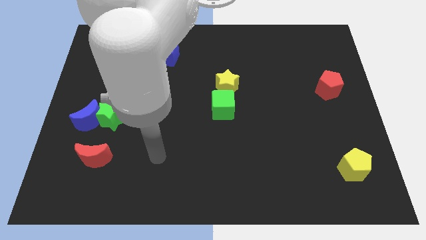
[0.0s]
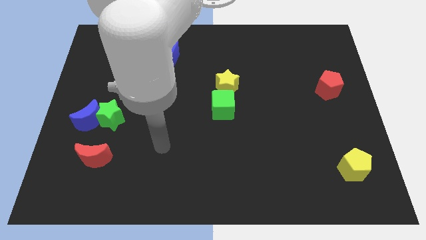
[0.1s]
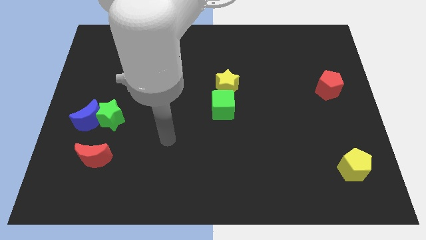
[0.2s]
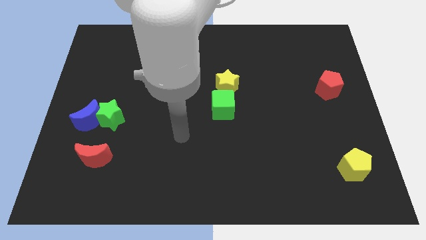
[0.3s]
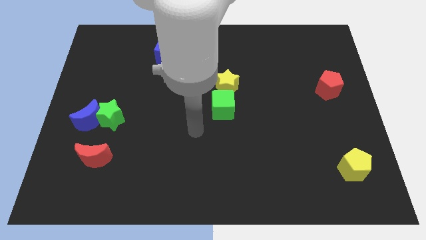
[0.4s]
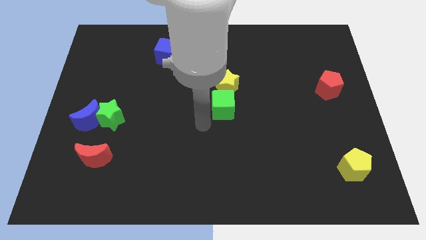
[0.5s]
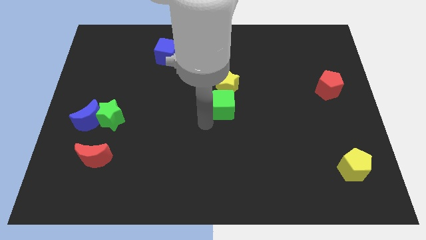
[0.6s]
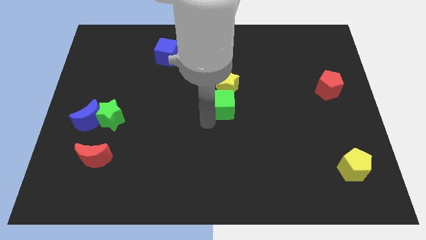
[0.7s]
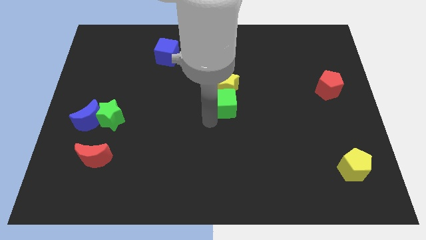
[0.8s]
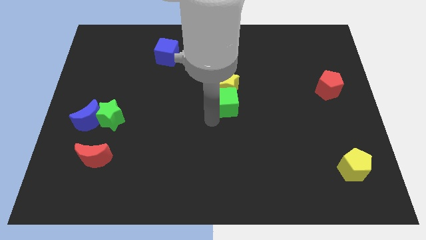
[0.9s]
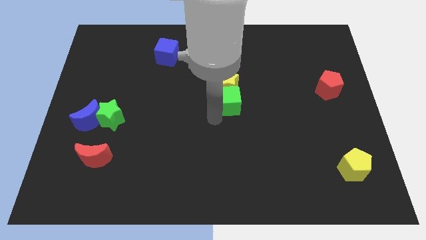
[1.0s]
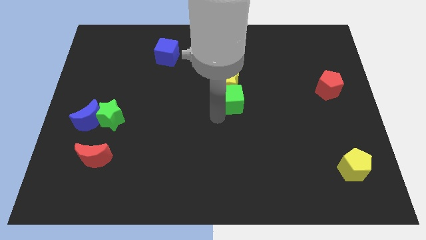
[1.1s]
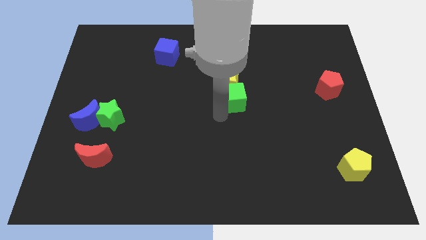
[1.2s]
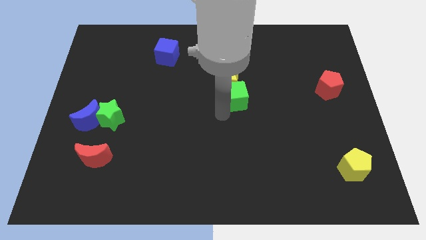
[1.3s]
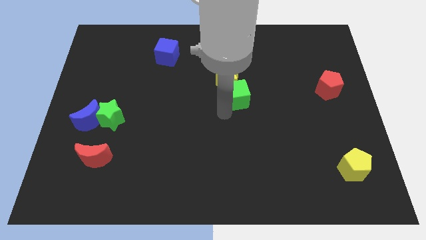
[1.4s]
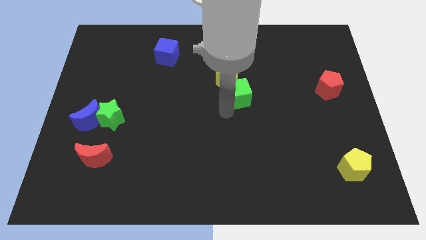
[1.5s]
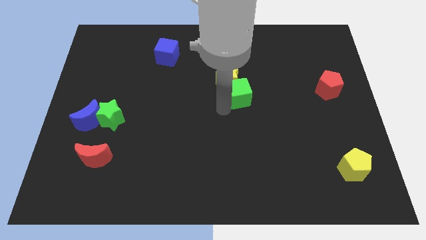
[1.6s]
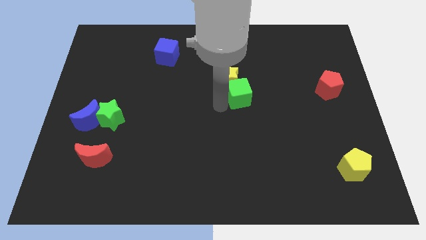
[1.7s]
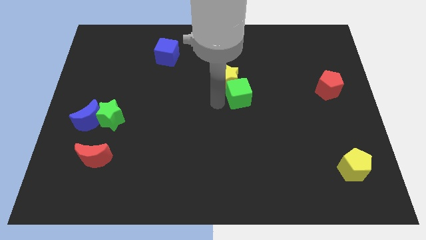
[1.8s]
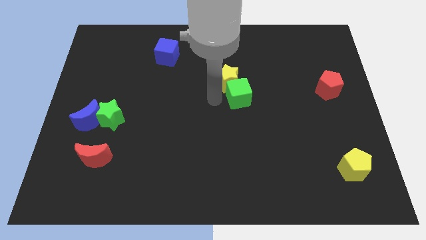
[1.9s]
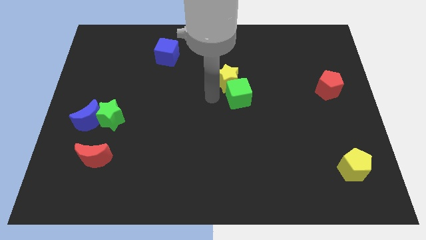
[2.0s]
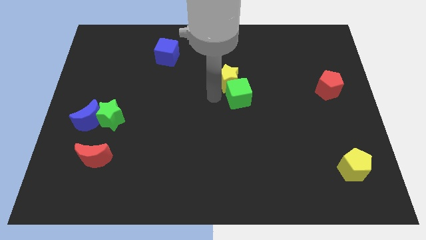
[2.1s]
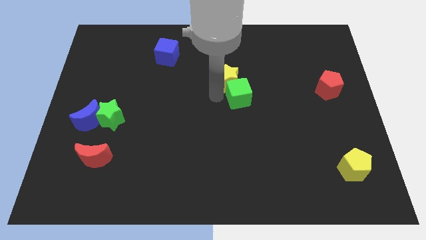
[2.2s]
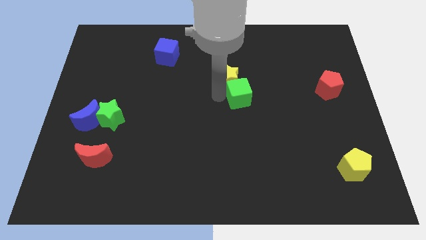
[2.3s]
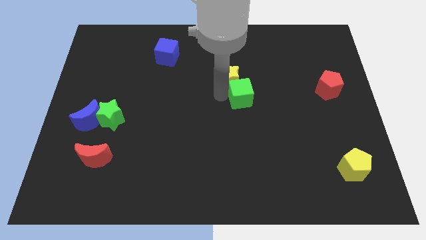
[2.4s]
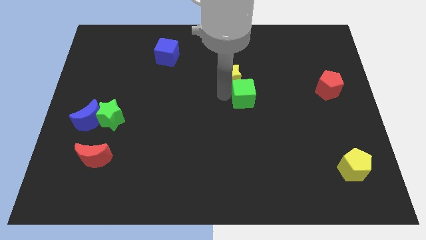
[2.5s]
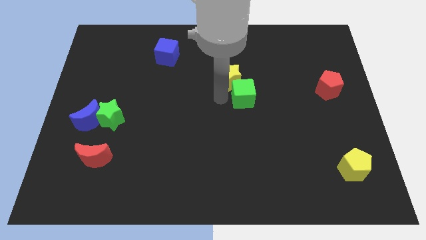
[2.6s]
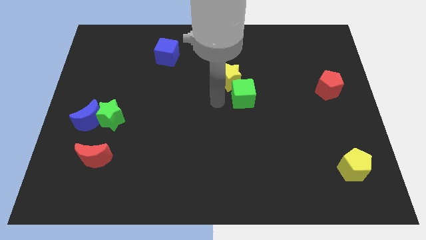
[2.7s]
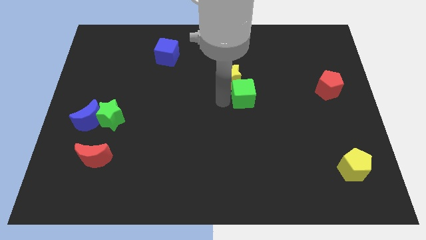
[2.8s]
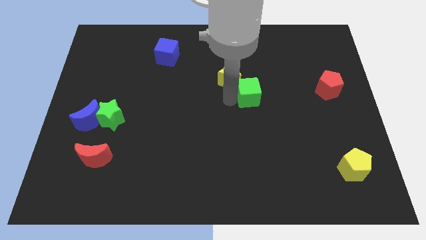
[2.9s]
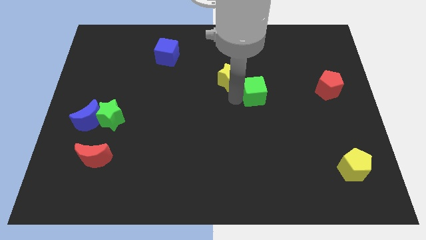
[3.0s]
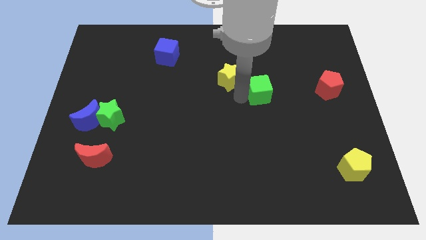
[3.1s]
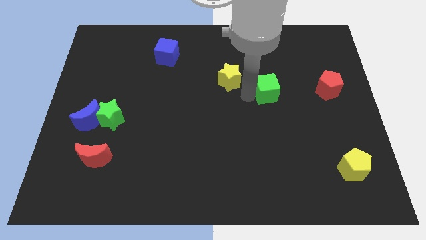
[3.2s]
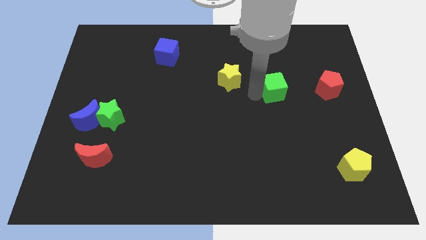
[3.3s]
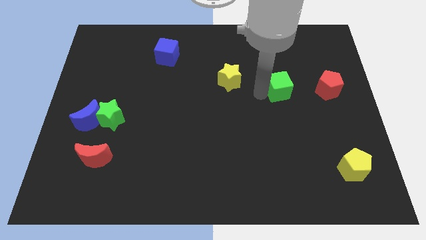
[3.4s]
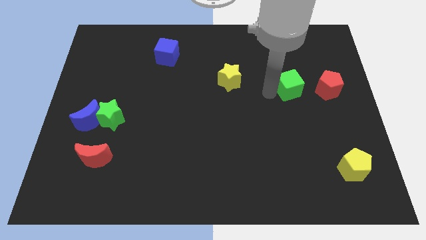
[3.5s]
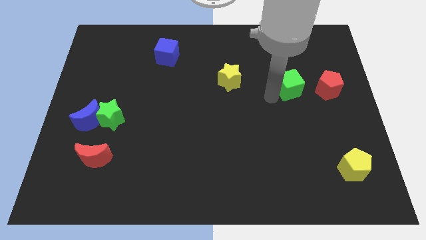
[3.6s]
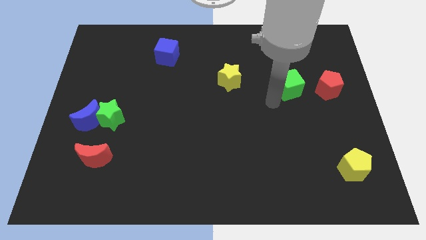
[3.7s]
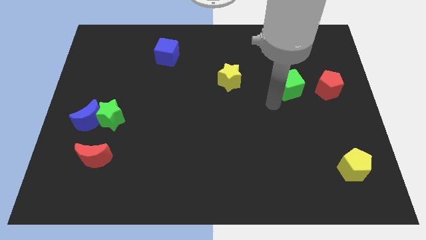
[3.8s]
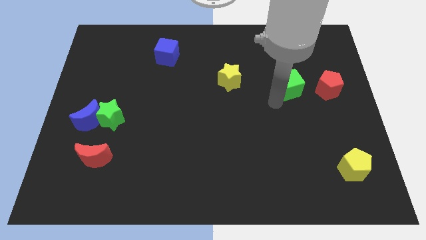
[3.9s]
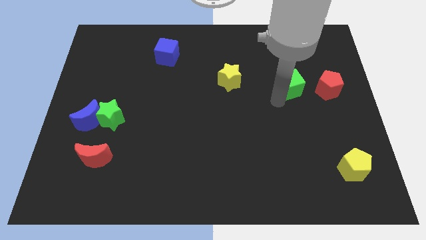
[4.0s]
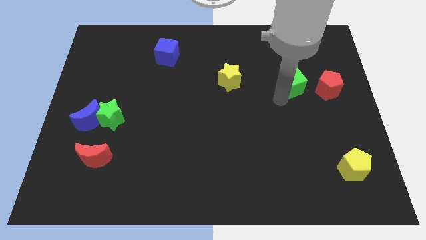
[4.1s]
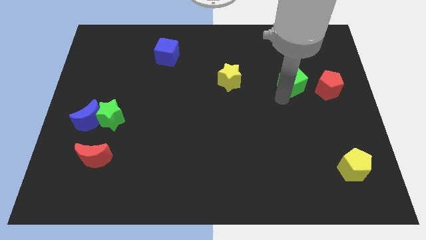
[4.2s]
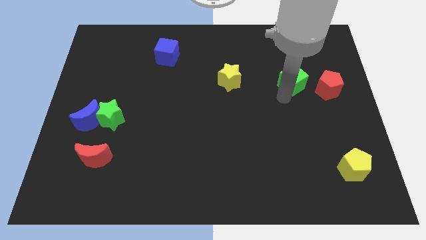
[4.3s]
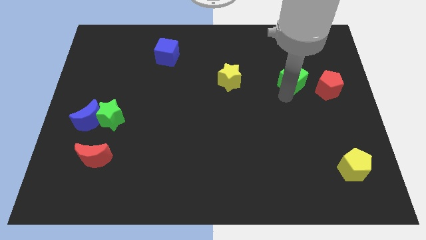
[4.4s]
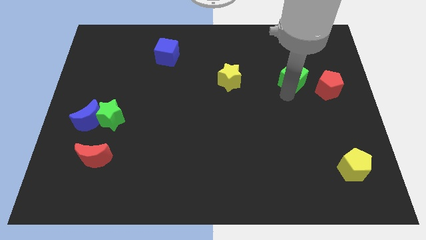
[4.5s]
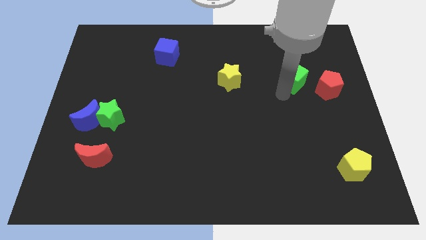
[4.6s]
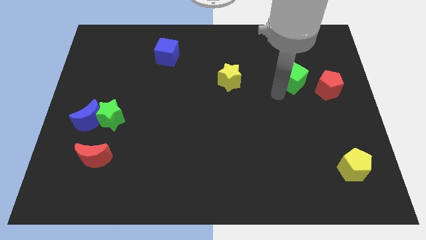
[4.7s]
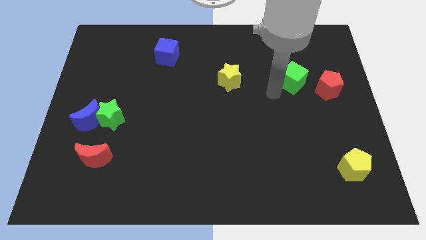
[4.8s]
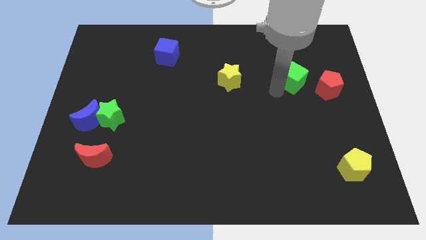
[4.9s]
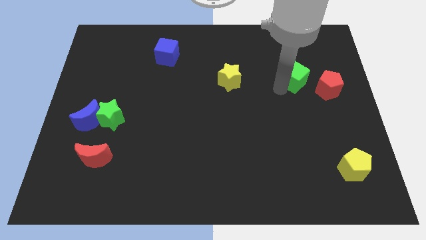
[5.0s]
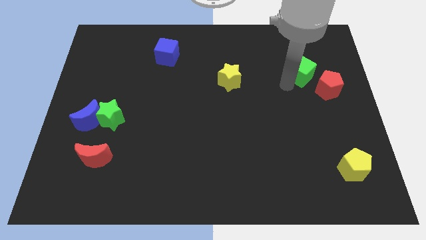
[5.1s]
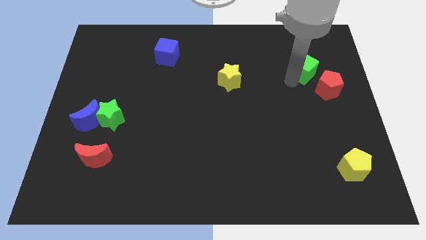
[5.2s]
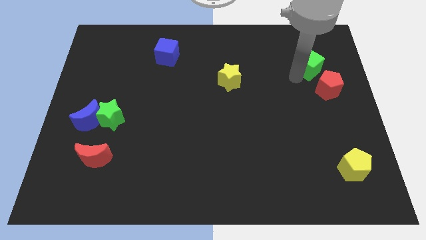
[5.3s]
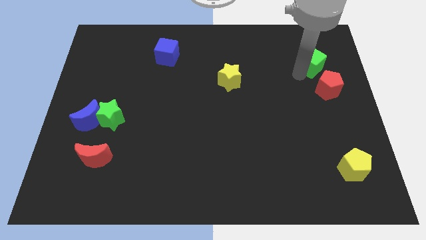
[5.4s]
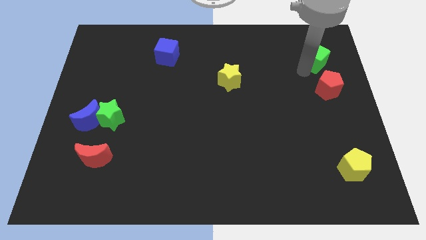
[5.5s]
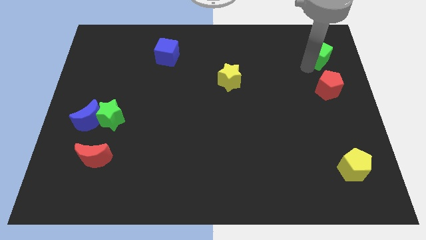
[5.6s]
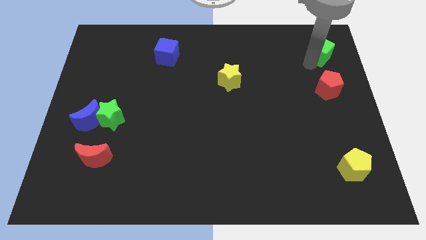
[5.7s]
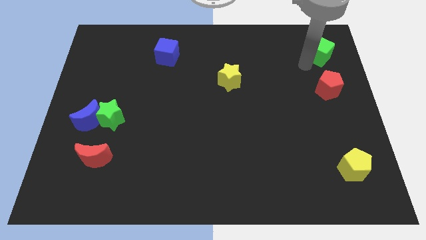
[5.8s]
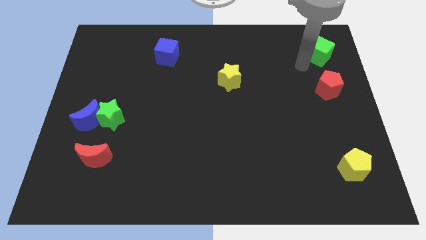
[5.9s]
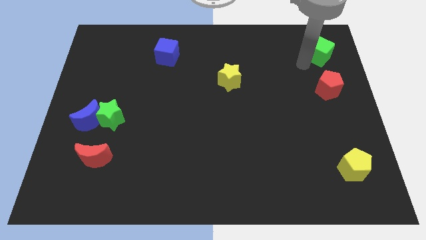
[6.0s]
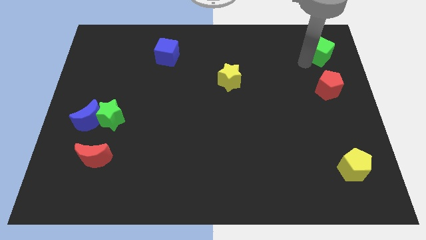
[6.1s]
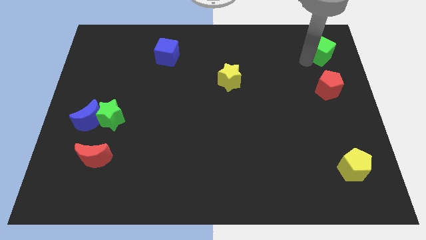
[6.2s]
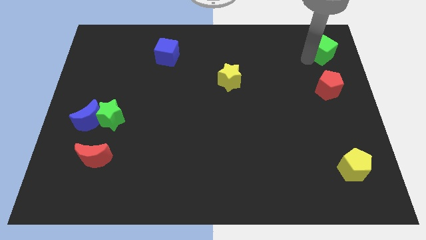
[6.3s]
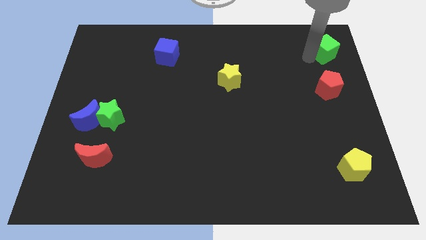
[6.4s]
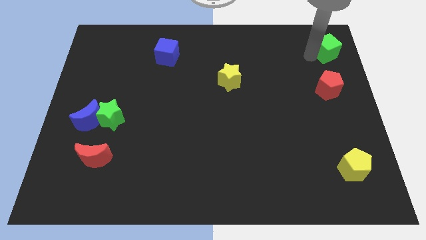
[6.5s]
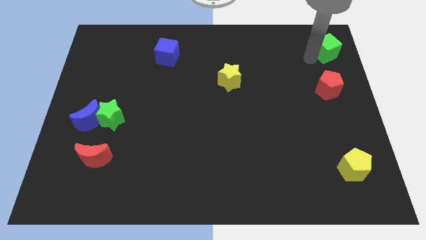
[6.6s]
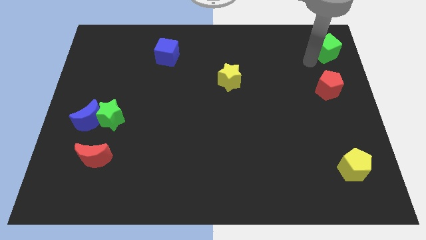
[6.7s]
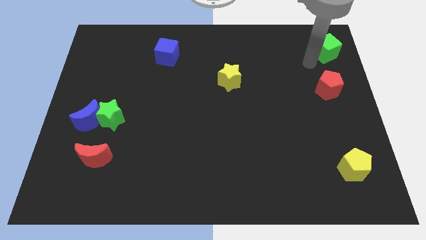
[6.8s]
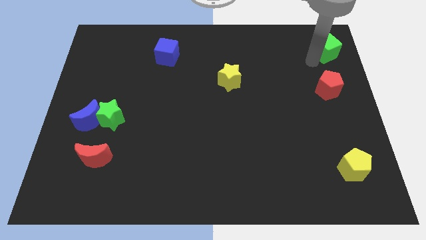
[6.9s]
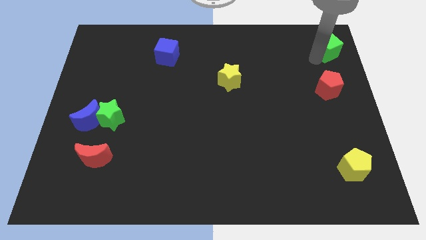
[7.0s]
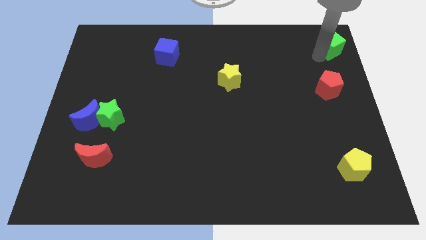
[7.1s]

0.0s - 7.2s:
slide the green cube to the top right of the board

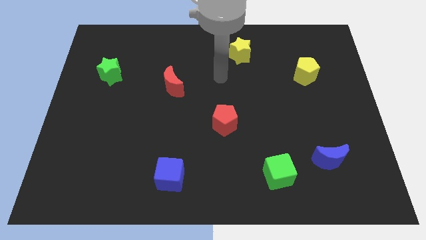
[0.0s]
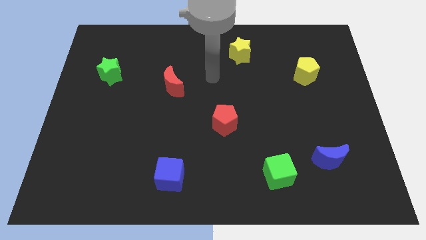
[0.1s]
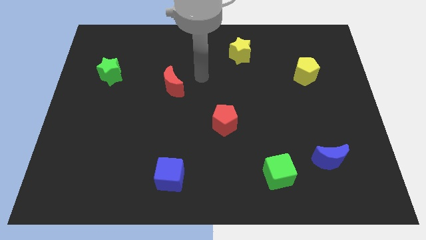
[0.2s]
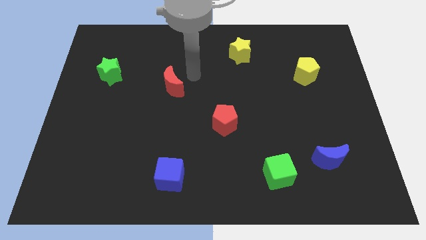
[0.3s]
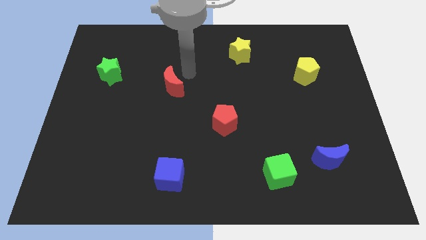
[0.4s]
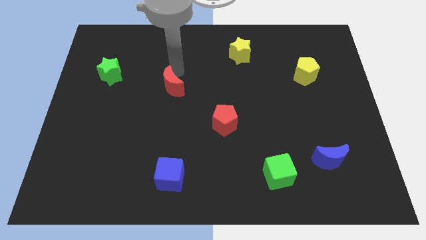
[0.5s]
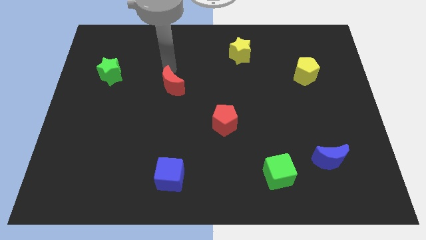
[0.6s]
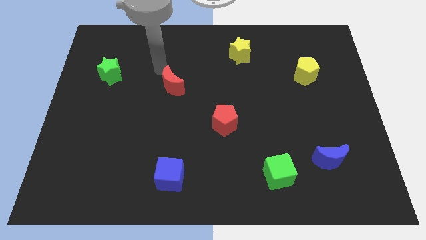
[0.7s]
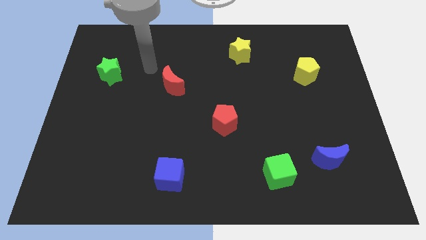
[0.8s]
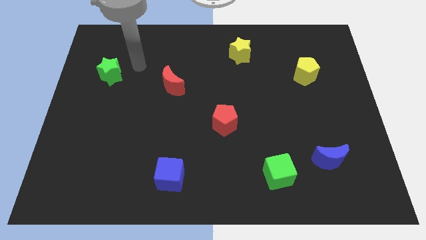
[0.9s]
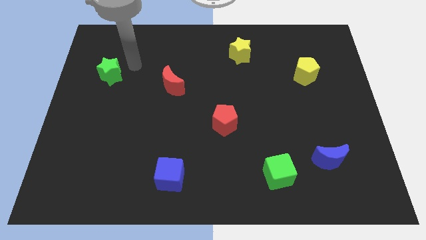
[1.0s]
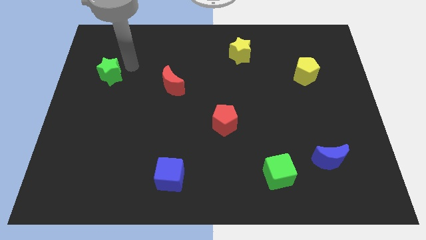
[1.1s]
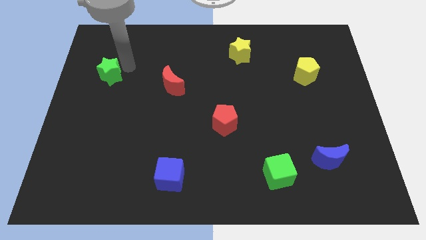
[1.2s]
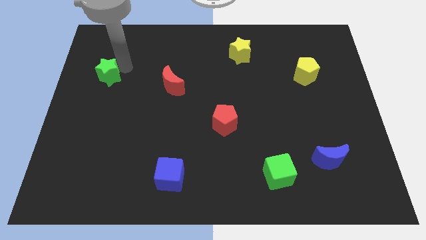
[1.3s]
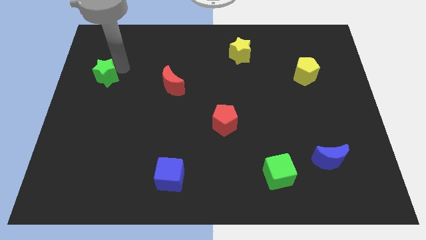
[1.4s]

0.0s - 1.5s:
move the green star to the center left
